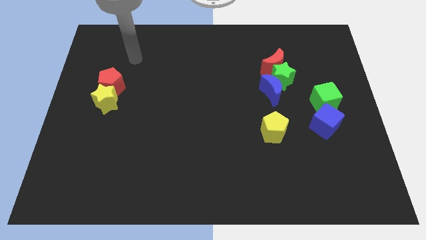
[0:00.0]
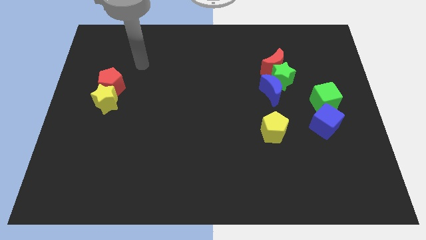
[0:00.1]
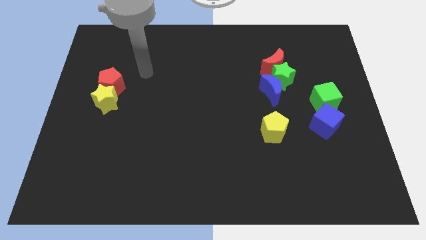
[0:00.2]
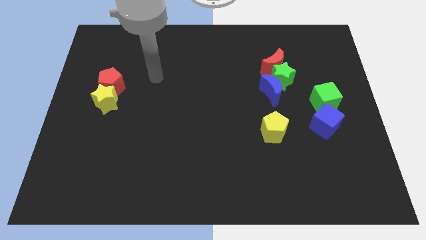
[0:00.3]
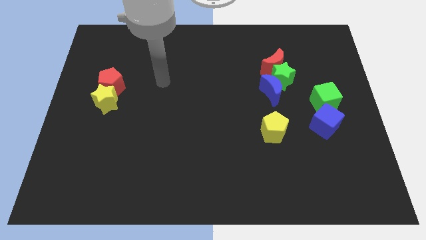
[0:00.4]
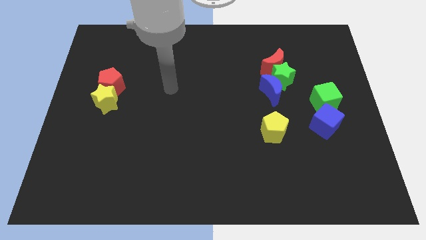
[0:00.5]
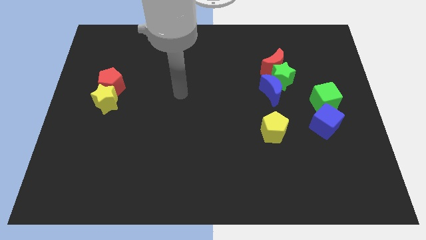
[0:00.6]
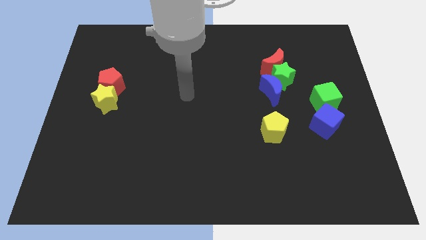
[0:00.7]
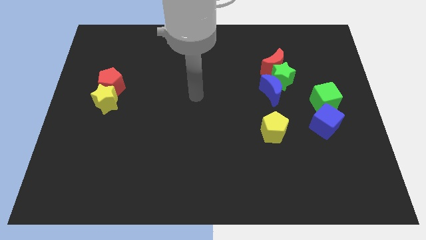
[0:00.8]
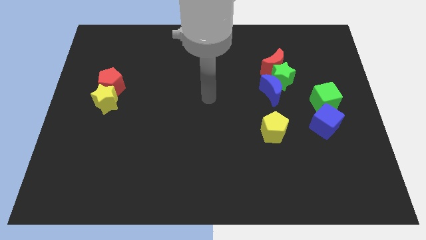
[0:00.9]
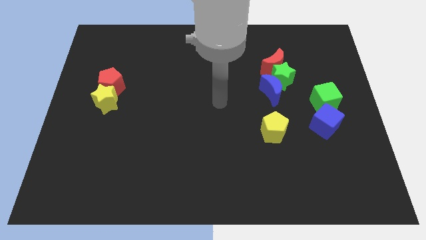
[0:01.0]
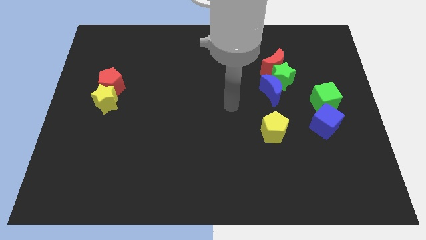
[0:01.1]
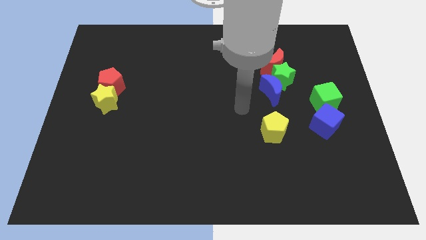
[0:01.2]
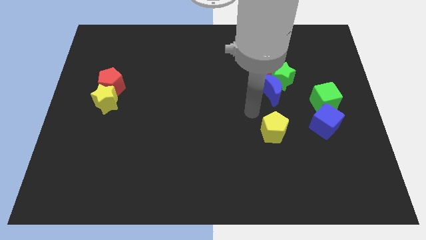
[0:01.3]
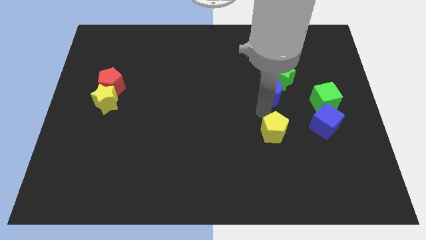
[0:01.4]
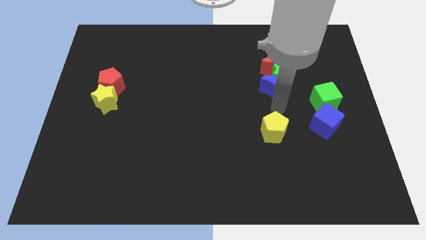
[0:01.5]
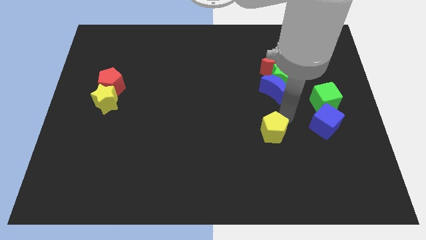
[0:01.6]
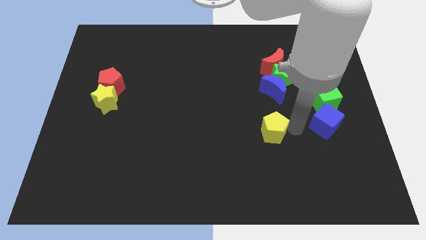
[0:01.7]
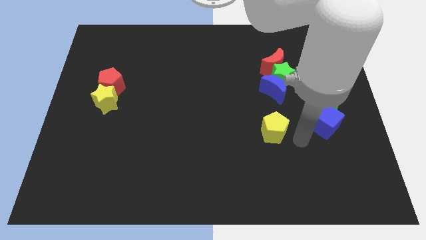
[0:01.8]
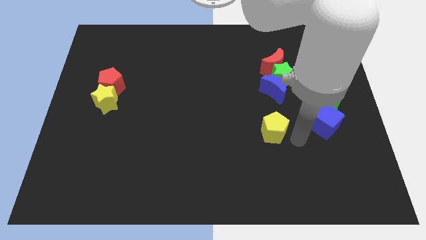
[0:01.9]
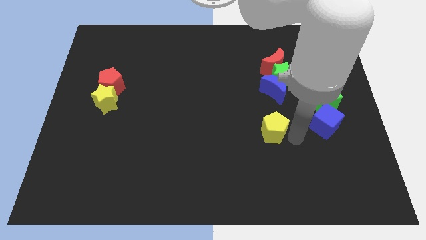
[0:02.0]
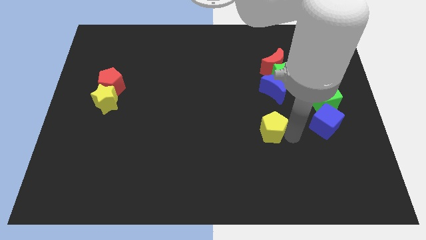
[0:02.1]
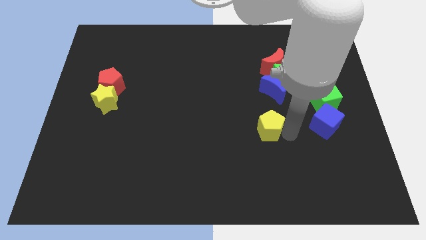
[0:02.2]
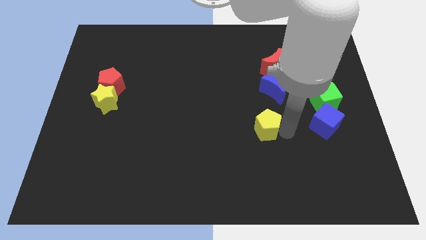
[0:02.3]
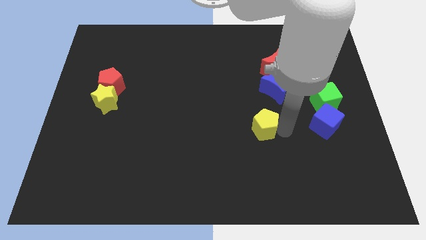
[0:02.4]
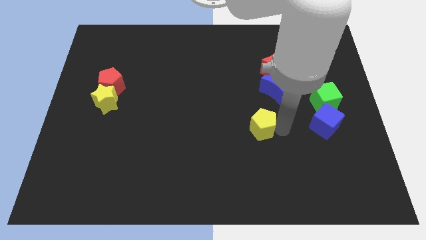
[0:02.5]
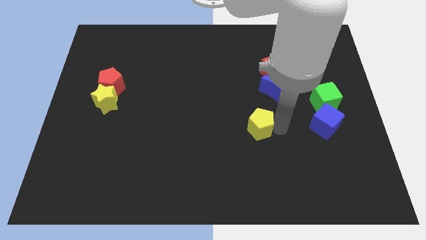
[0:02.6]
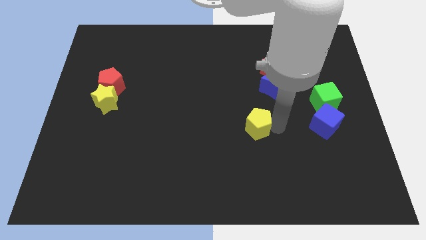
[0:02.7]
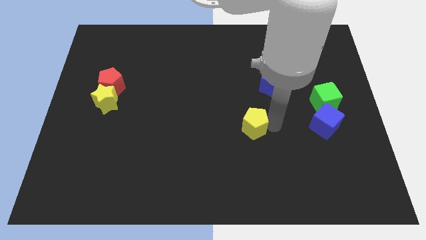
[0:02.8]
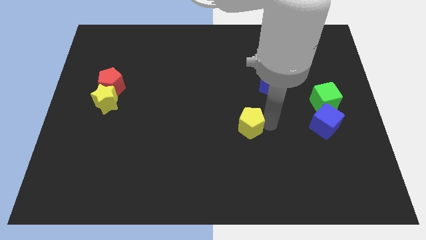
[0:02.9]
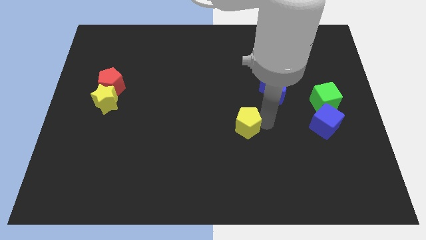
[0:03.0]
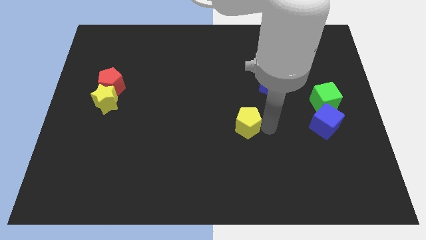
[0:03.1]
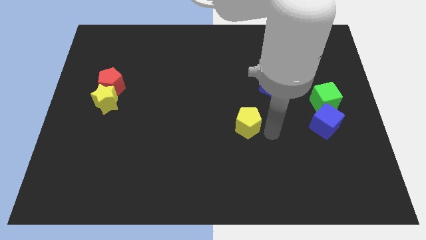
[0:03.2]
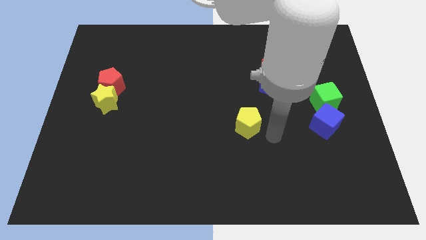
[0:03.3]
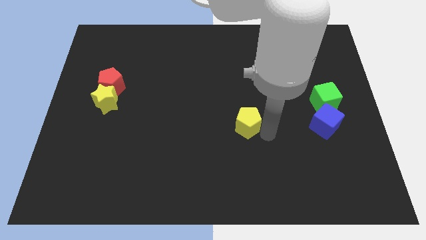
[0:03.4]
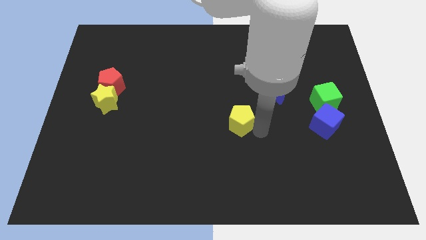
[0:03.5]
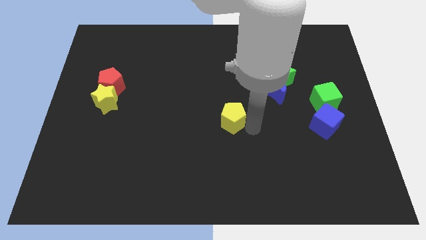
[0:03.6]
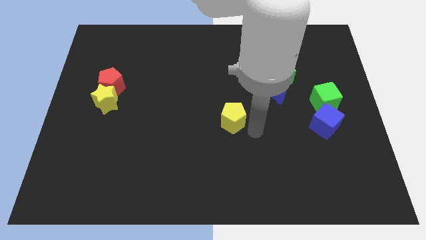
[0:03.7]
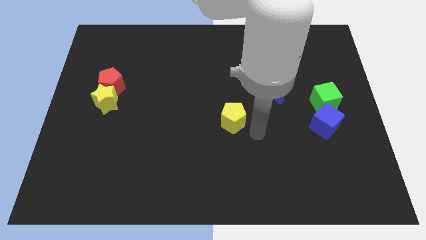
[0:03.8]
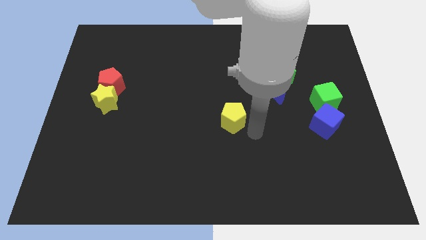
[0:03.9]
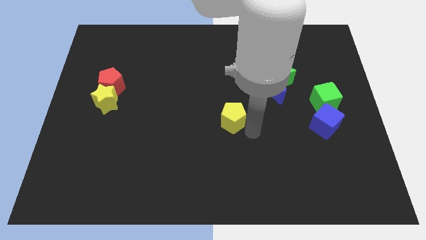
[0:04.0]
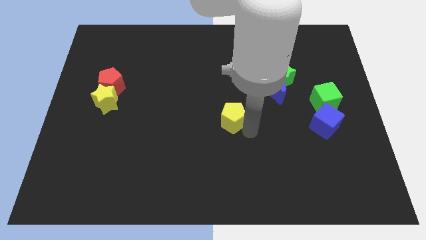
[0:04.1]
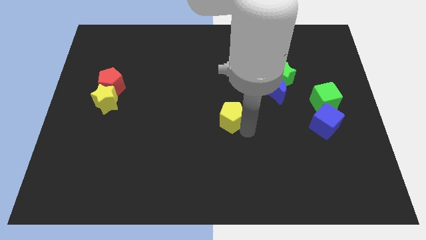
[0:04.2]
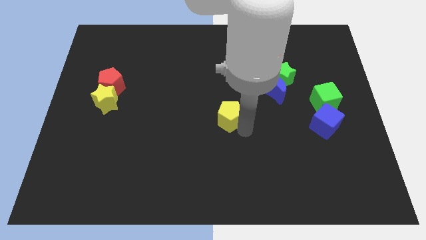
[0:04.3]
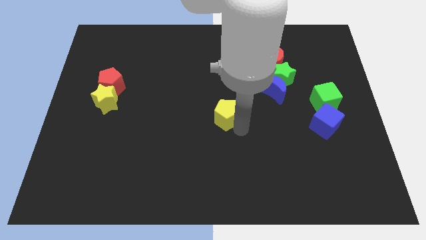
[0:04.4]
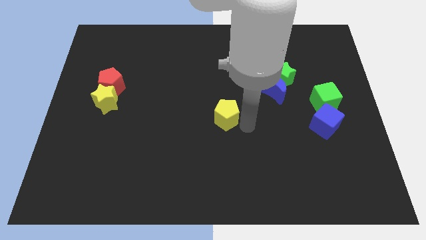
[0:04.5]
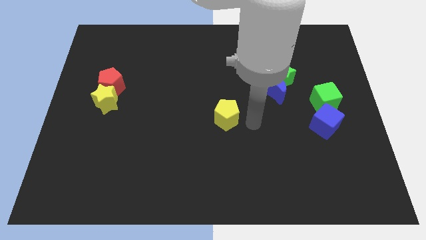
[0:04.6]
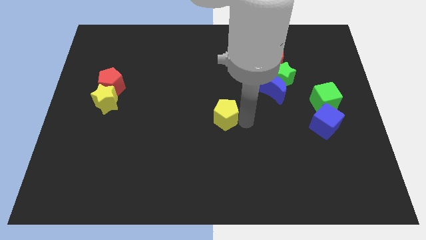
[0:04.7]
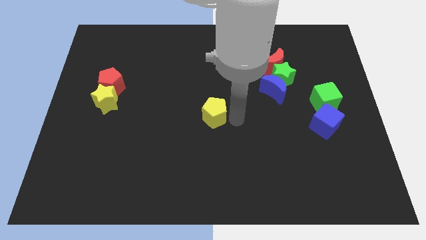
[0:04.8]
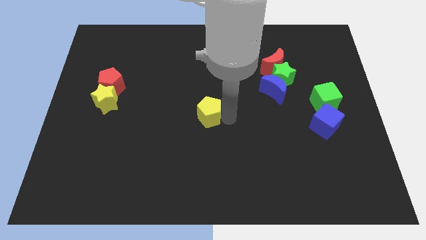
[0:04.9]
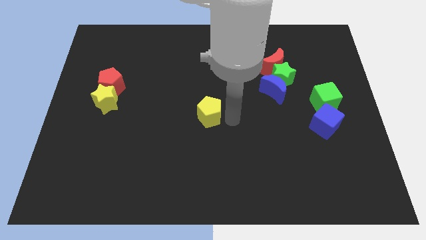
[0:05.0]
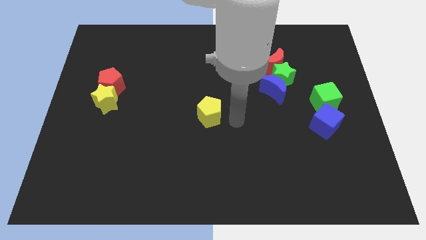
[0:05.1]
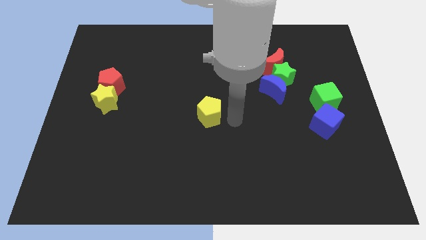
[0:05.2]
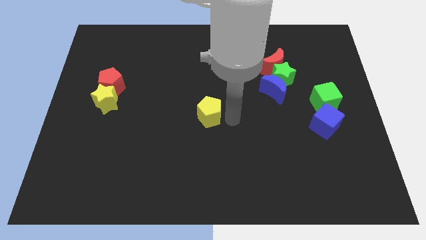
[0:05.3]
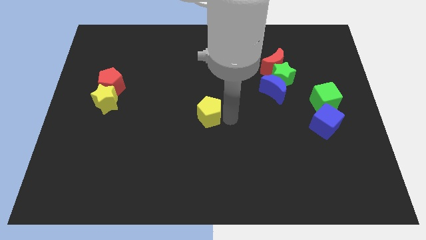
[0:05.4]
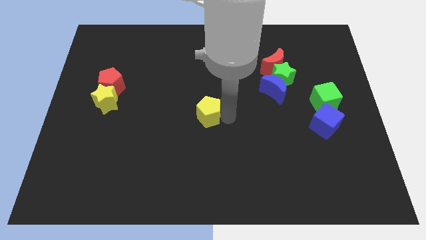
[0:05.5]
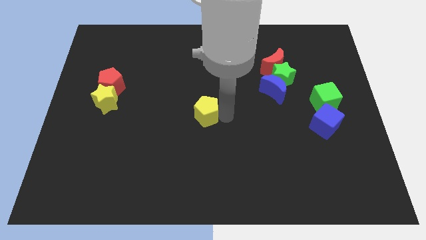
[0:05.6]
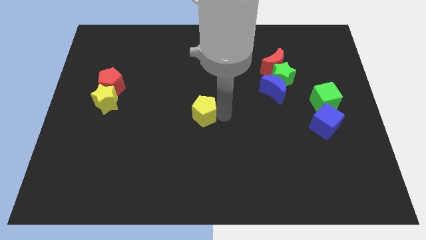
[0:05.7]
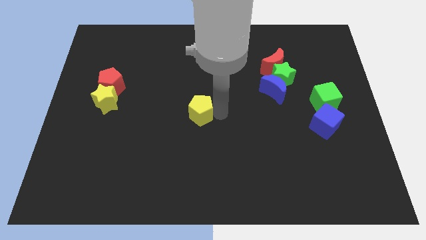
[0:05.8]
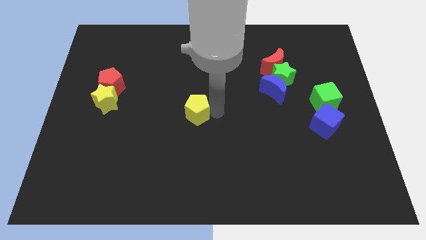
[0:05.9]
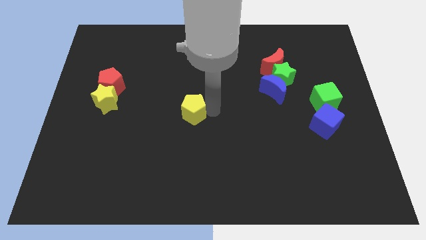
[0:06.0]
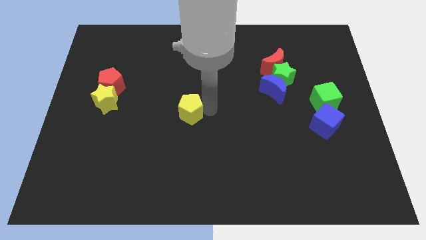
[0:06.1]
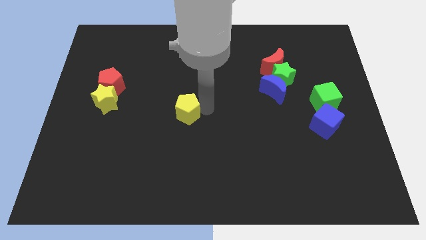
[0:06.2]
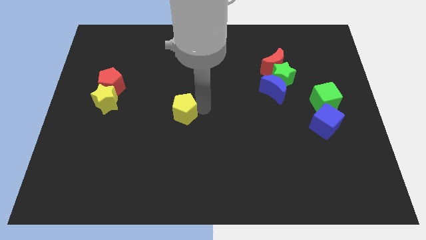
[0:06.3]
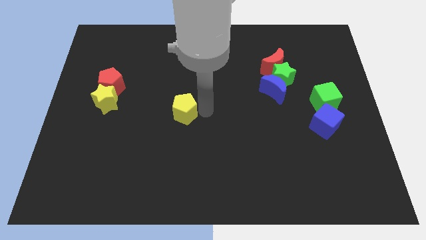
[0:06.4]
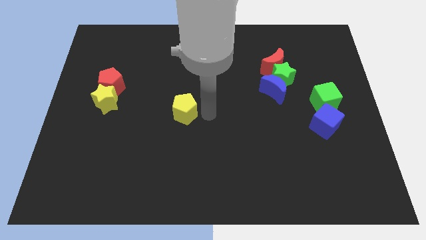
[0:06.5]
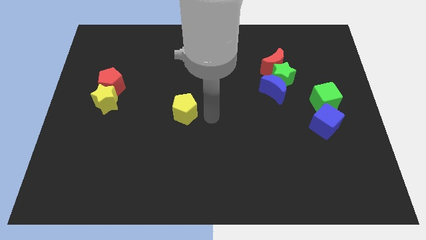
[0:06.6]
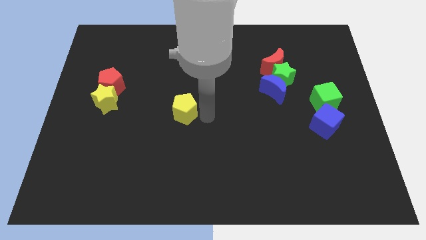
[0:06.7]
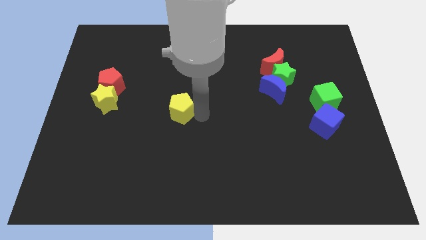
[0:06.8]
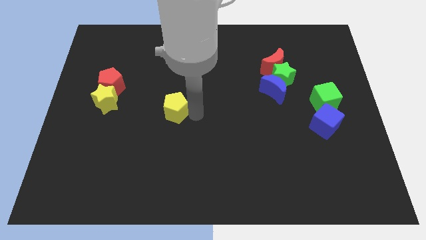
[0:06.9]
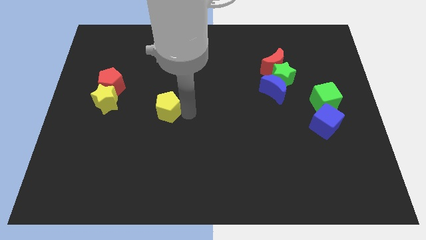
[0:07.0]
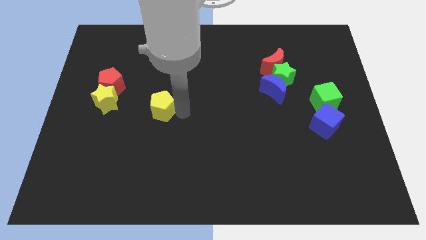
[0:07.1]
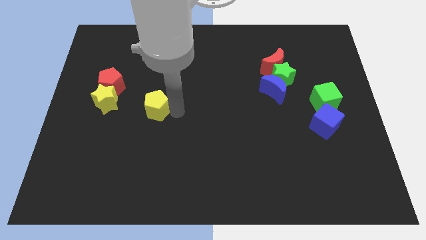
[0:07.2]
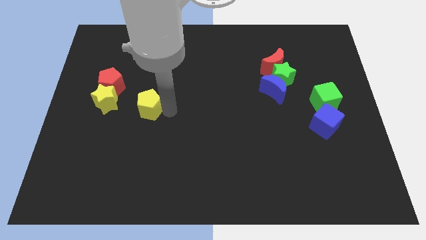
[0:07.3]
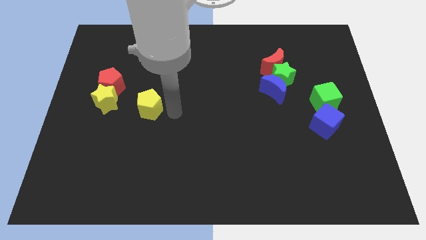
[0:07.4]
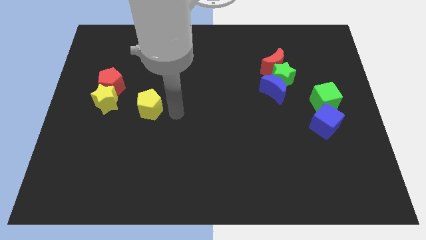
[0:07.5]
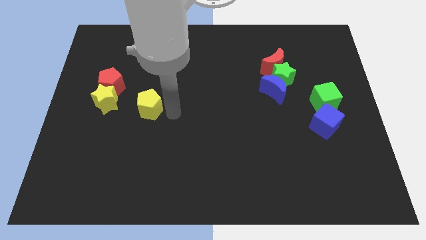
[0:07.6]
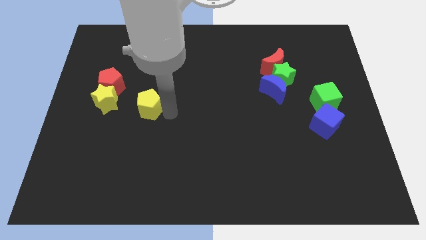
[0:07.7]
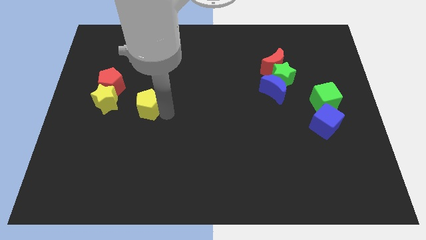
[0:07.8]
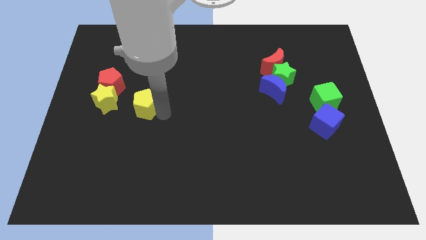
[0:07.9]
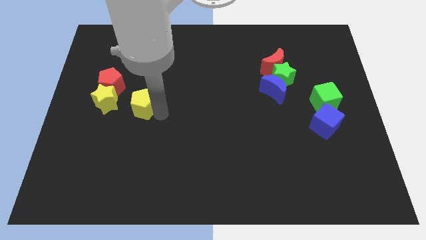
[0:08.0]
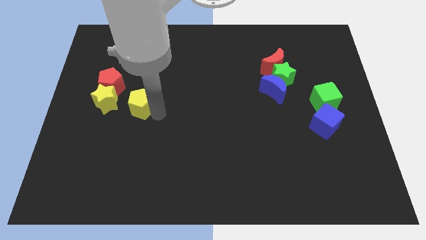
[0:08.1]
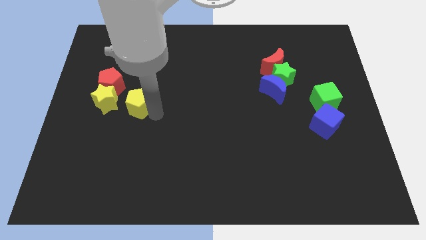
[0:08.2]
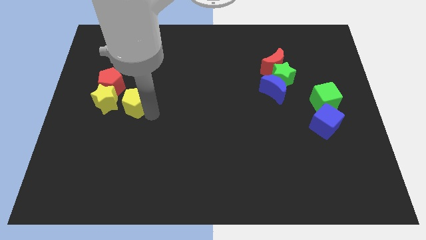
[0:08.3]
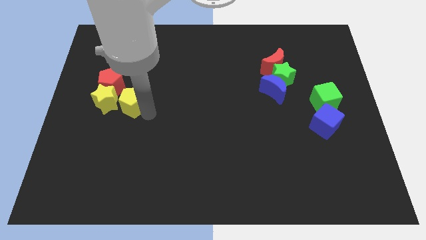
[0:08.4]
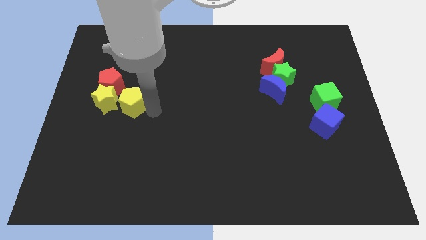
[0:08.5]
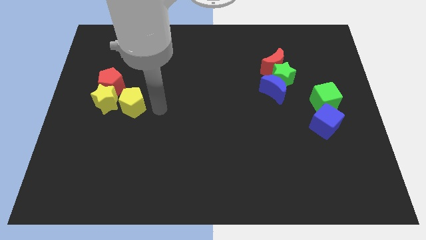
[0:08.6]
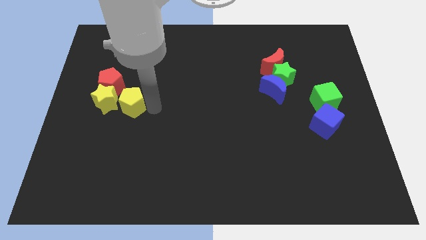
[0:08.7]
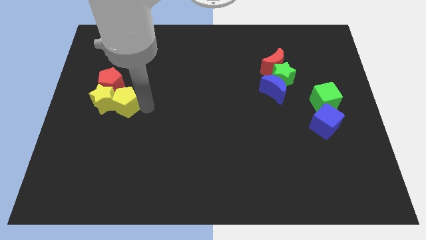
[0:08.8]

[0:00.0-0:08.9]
slide the yellow pentagon towards the yellow star
